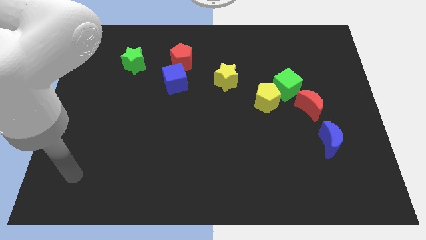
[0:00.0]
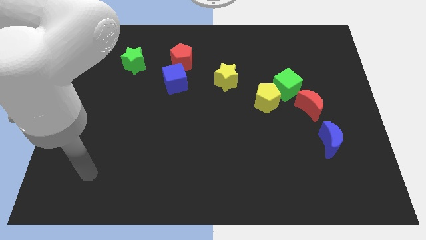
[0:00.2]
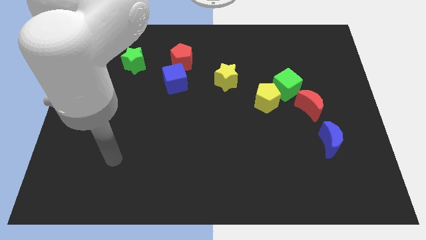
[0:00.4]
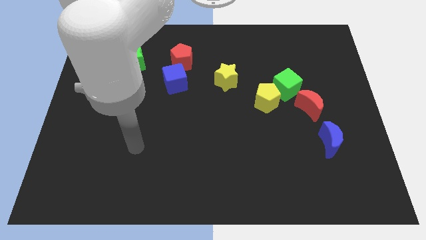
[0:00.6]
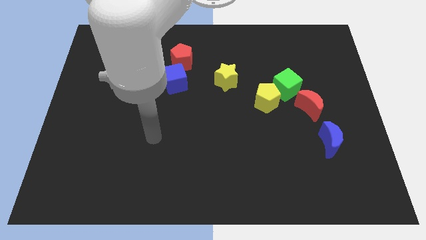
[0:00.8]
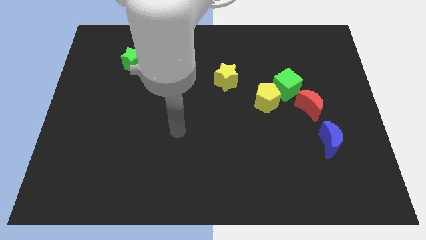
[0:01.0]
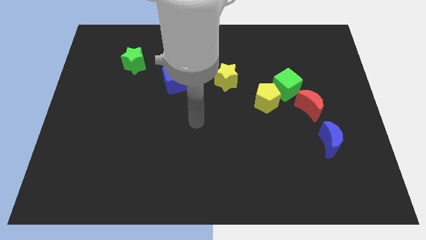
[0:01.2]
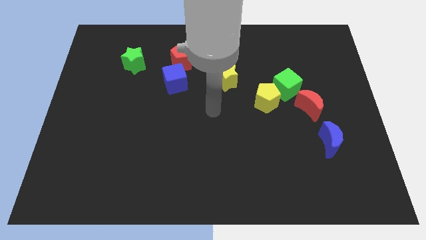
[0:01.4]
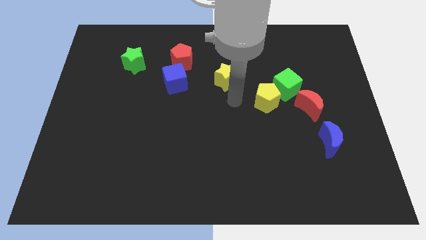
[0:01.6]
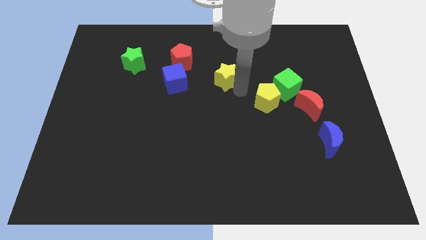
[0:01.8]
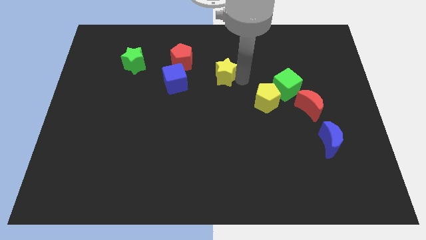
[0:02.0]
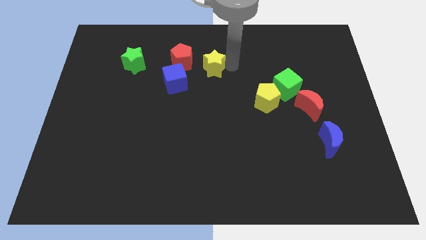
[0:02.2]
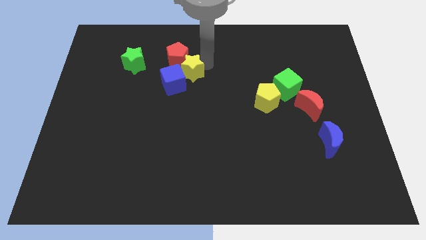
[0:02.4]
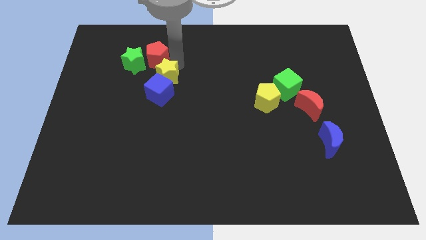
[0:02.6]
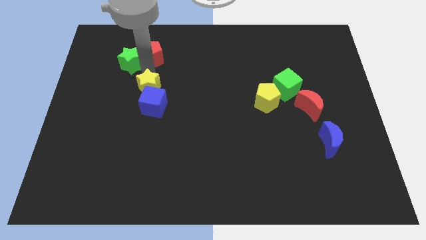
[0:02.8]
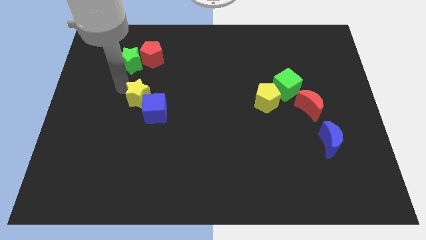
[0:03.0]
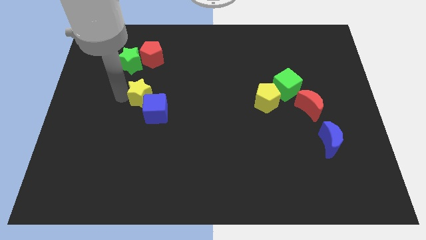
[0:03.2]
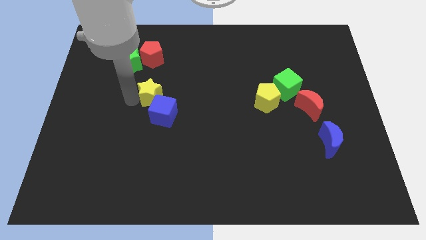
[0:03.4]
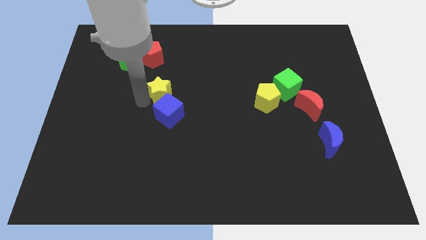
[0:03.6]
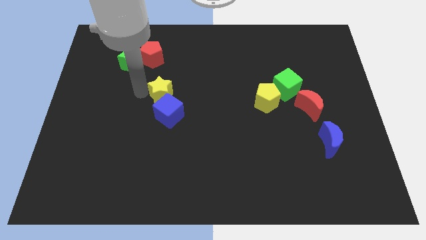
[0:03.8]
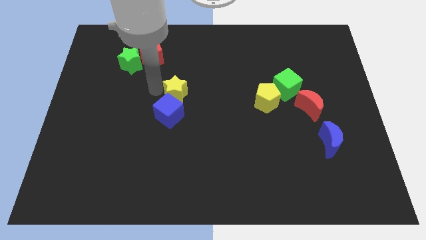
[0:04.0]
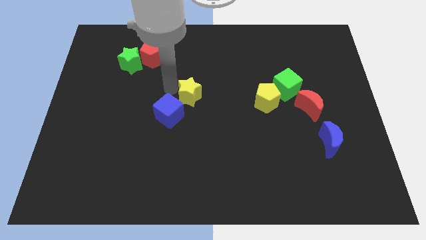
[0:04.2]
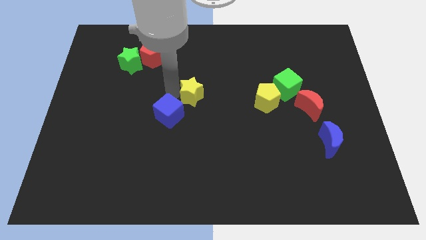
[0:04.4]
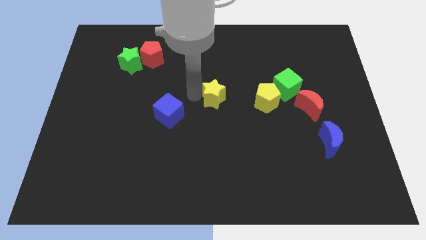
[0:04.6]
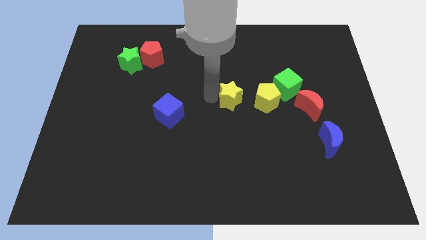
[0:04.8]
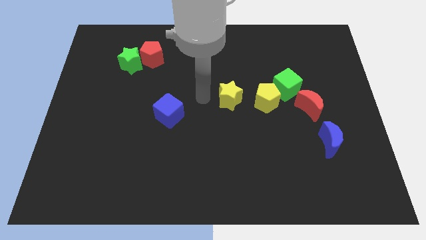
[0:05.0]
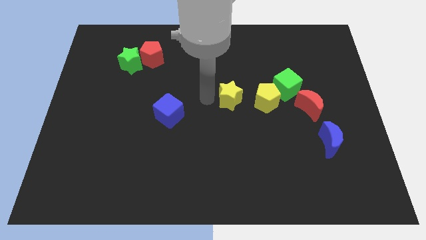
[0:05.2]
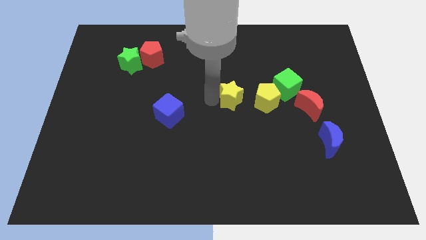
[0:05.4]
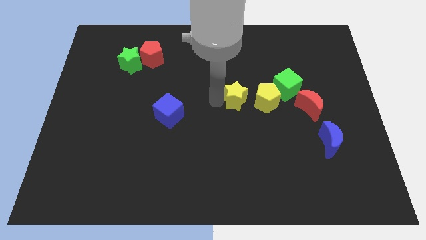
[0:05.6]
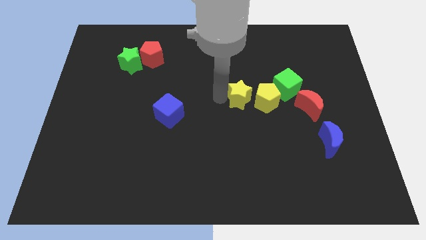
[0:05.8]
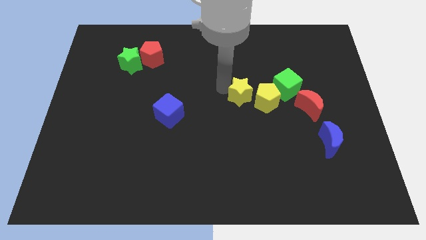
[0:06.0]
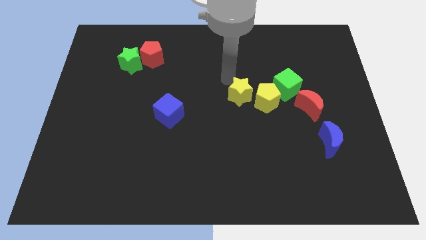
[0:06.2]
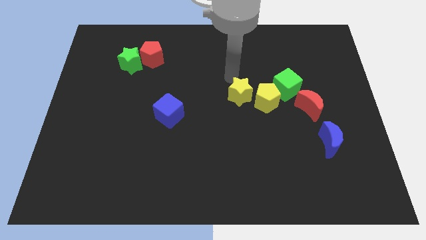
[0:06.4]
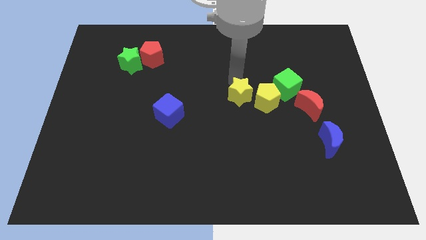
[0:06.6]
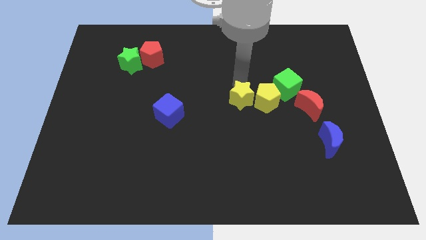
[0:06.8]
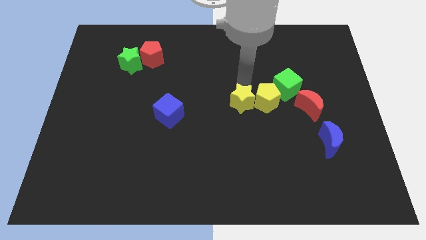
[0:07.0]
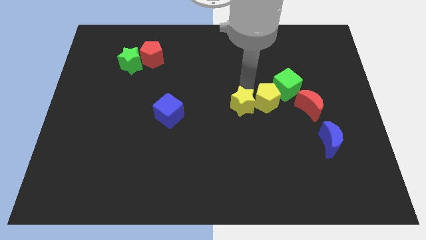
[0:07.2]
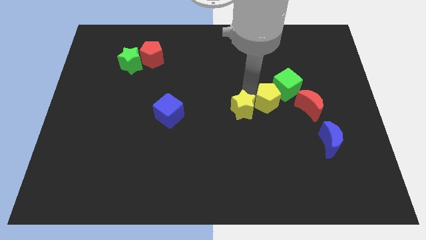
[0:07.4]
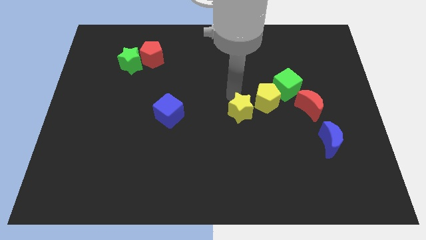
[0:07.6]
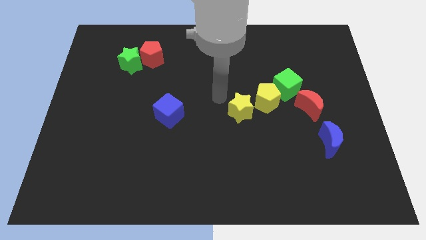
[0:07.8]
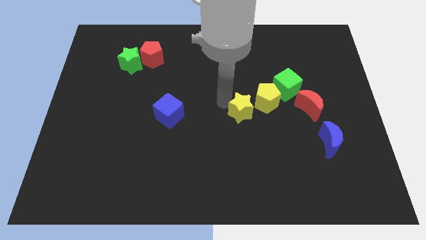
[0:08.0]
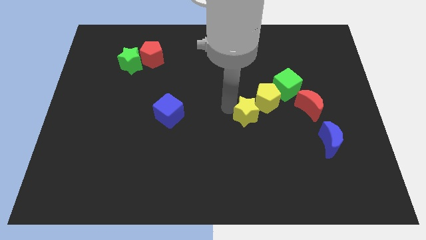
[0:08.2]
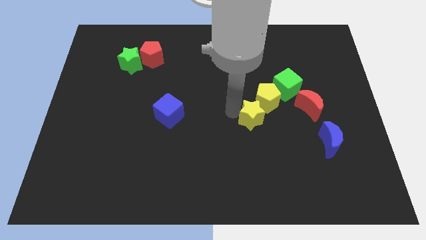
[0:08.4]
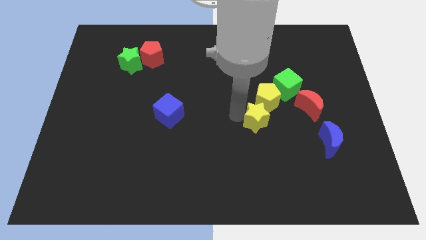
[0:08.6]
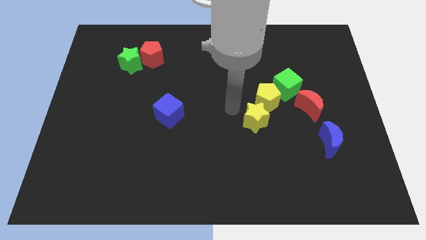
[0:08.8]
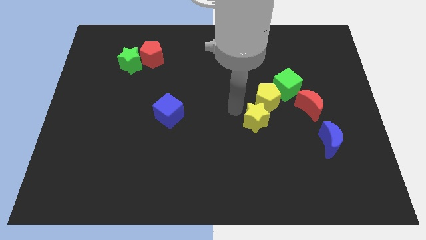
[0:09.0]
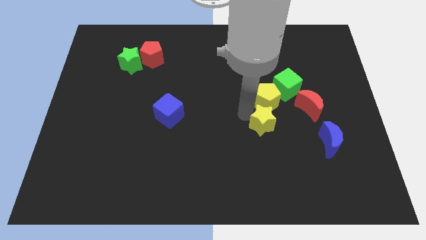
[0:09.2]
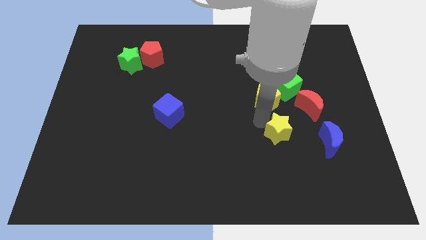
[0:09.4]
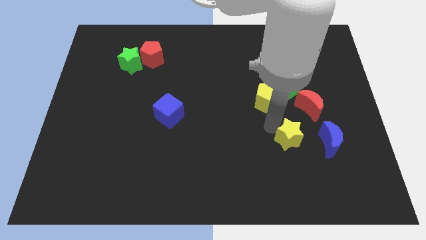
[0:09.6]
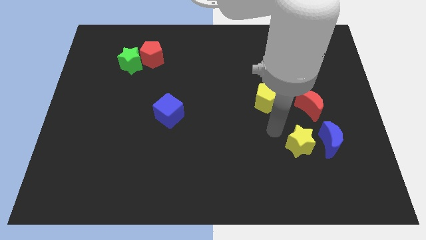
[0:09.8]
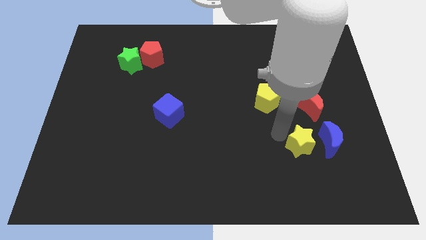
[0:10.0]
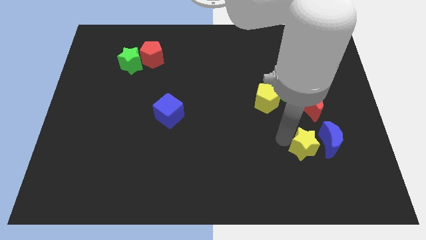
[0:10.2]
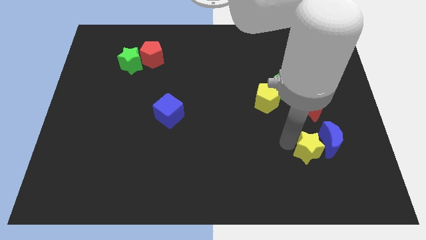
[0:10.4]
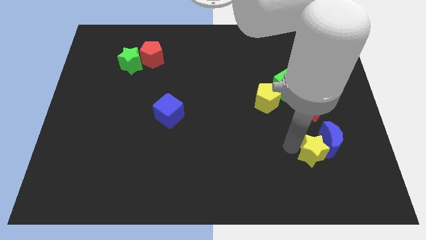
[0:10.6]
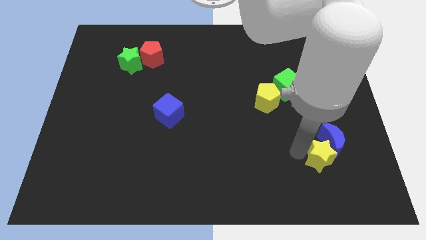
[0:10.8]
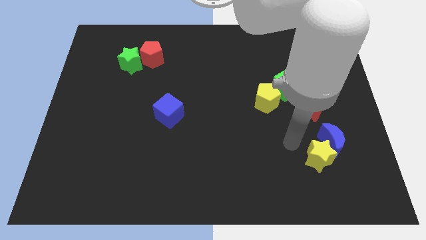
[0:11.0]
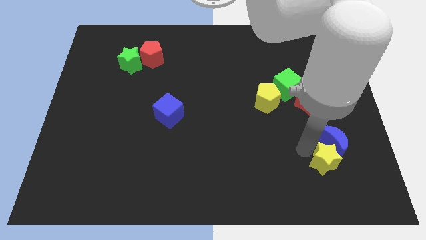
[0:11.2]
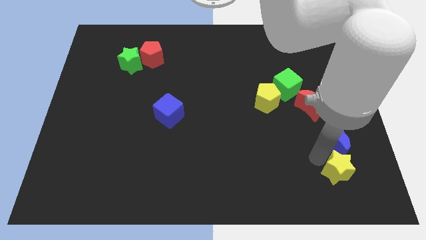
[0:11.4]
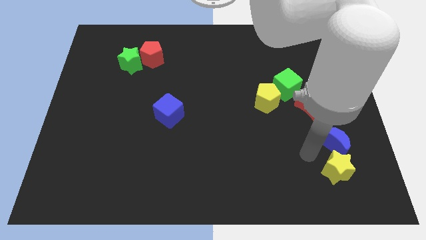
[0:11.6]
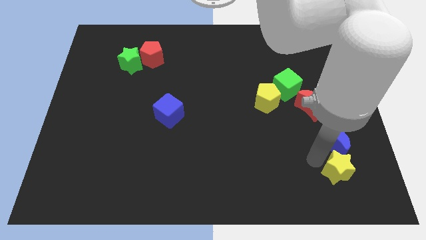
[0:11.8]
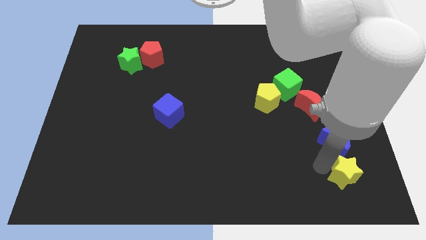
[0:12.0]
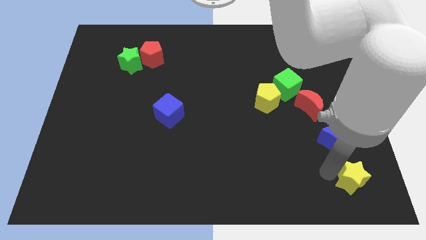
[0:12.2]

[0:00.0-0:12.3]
put the yellow star to the bottom right of the board
